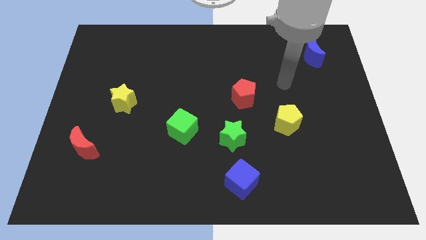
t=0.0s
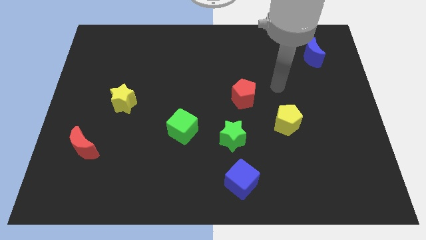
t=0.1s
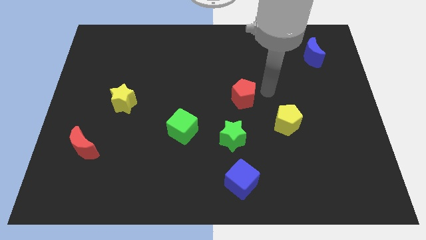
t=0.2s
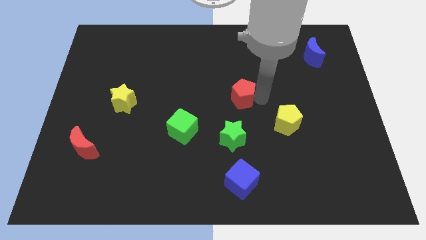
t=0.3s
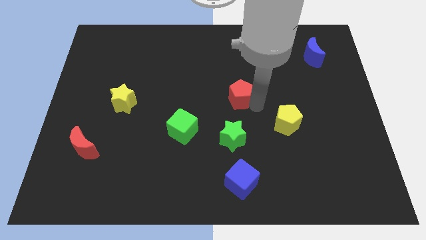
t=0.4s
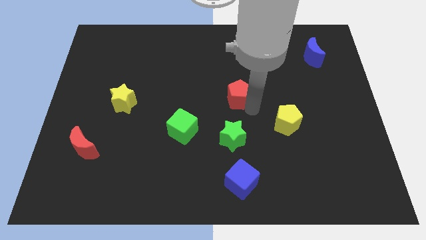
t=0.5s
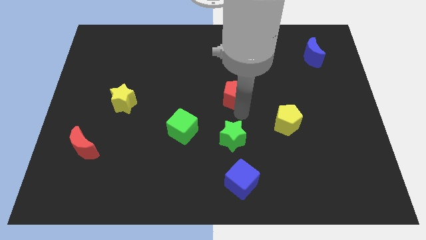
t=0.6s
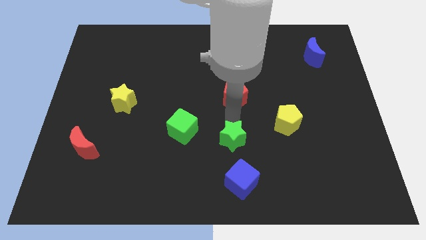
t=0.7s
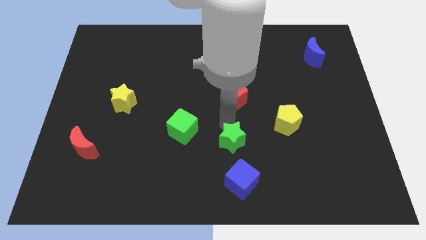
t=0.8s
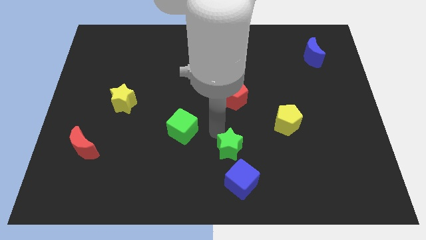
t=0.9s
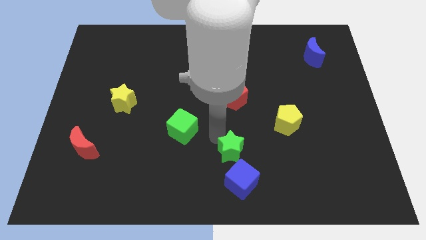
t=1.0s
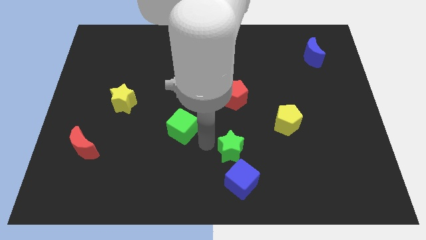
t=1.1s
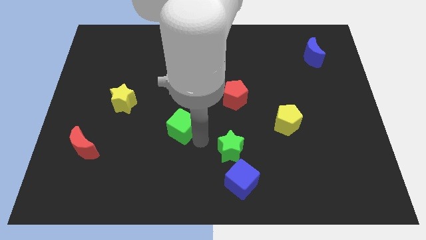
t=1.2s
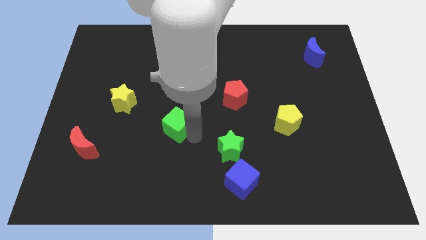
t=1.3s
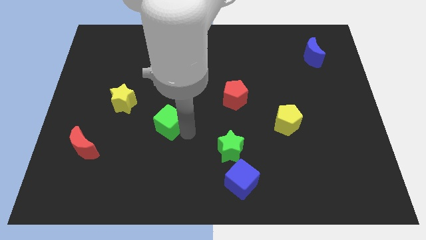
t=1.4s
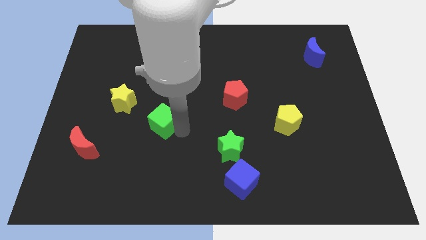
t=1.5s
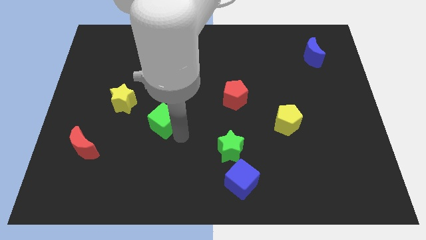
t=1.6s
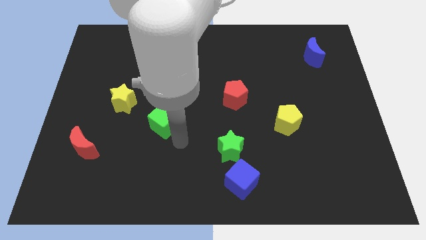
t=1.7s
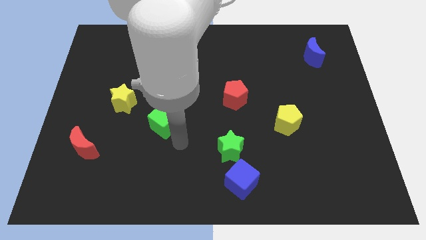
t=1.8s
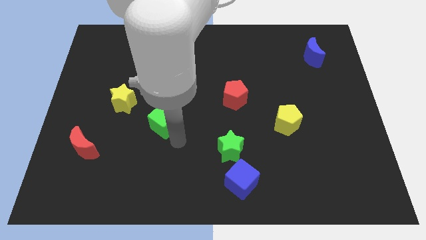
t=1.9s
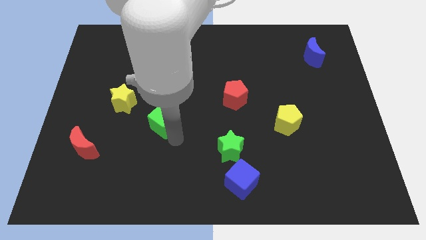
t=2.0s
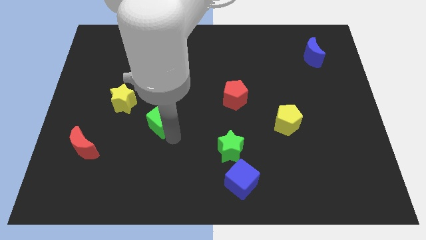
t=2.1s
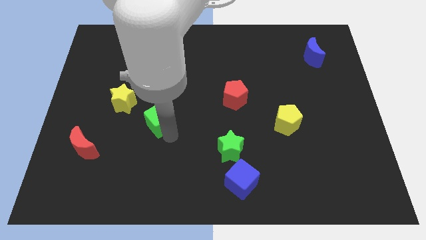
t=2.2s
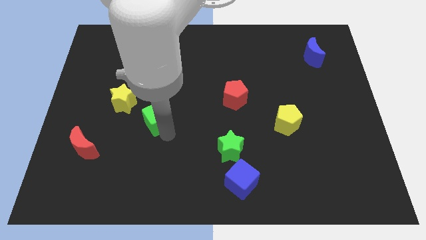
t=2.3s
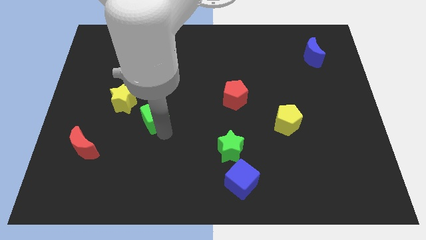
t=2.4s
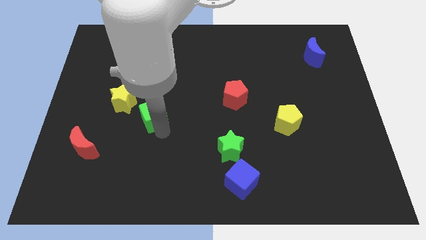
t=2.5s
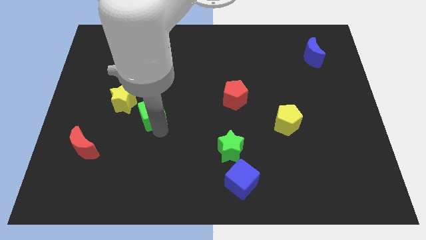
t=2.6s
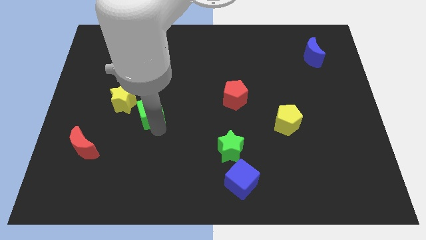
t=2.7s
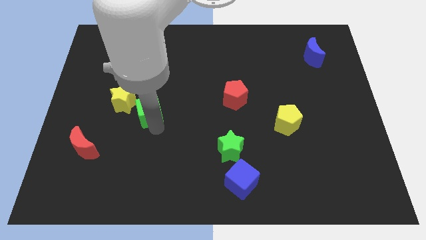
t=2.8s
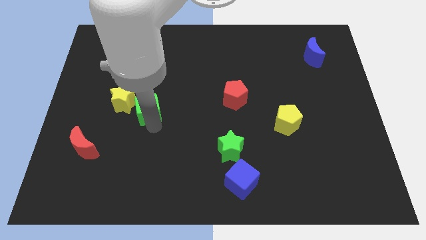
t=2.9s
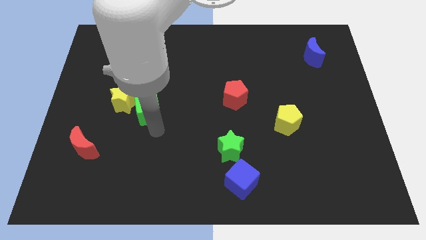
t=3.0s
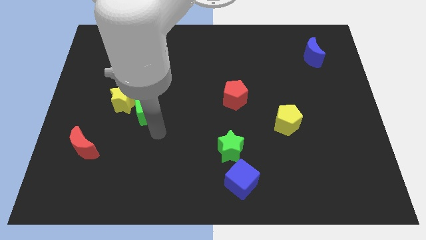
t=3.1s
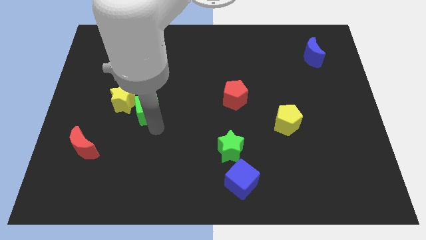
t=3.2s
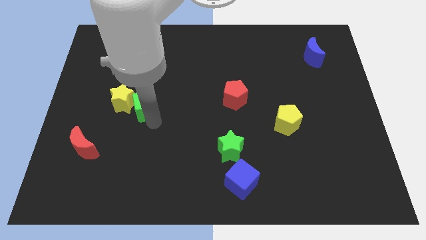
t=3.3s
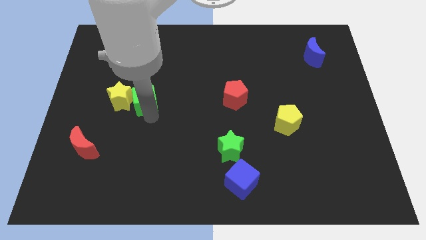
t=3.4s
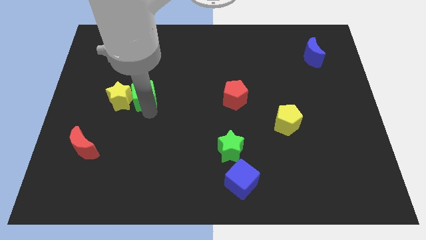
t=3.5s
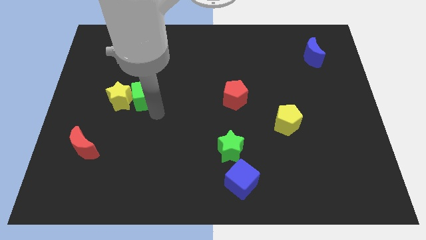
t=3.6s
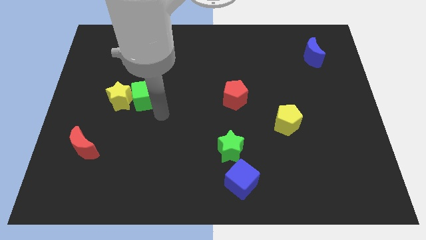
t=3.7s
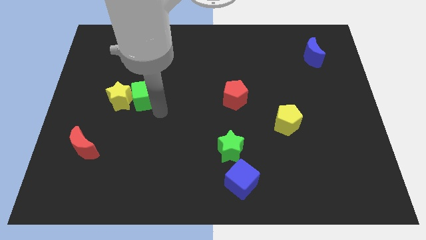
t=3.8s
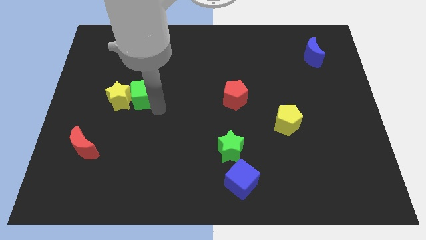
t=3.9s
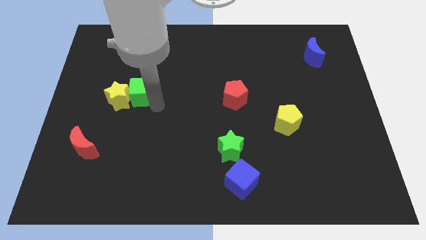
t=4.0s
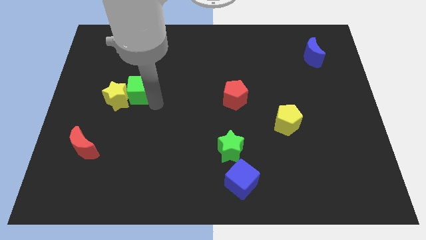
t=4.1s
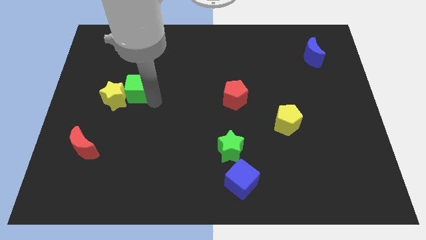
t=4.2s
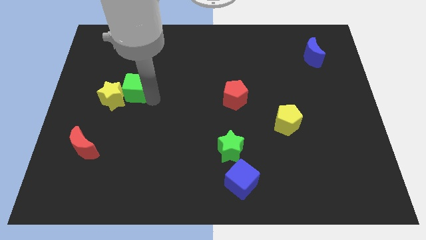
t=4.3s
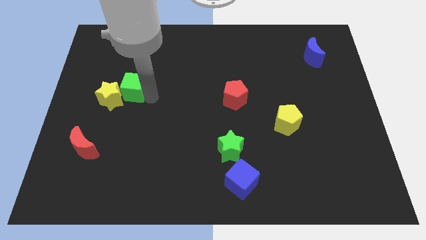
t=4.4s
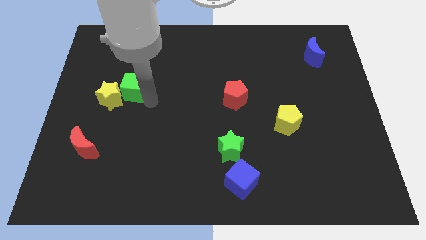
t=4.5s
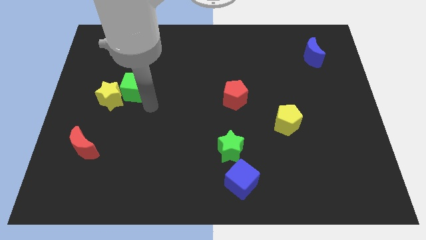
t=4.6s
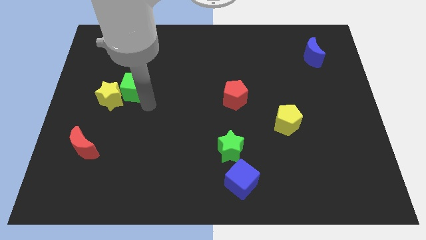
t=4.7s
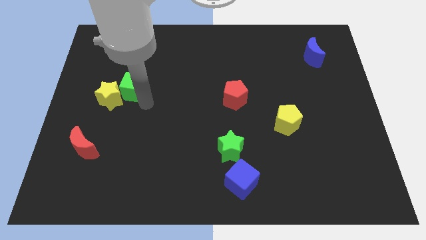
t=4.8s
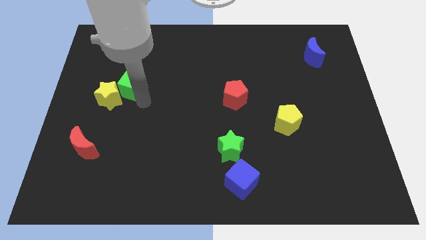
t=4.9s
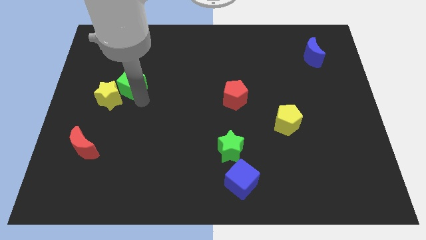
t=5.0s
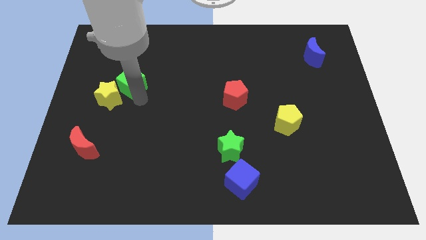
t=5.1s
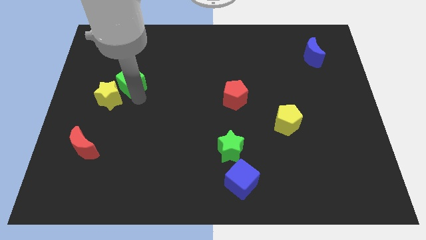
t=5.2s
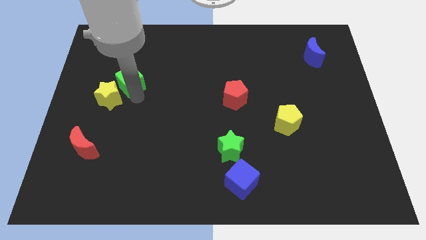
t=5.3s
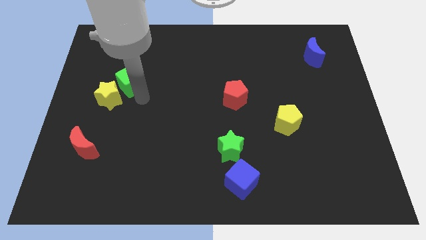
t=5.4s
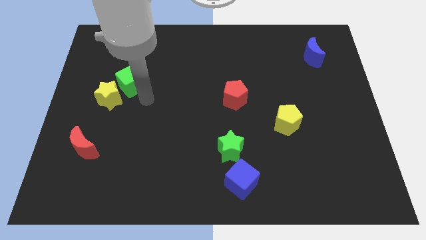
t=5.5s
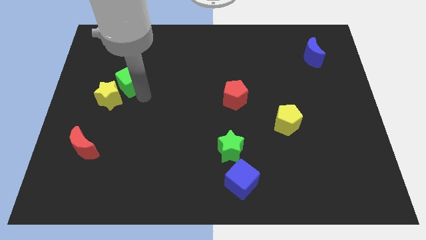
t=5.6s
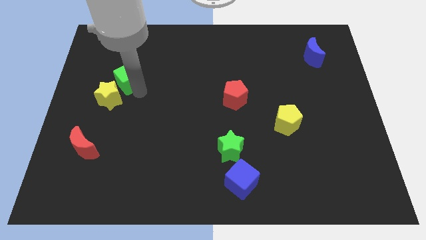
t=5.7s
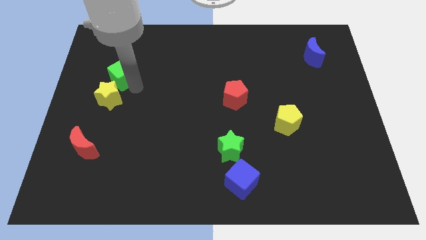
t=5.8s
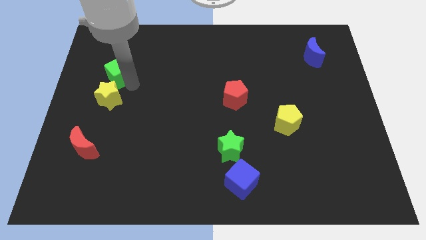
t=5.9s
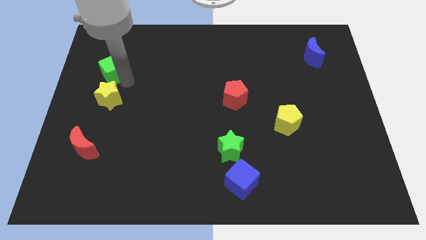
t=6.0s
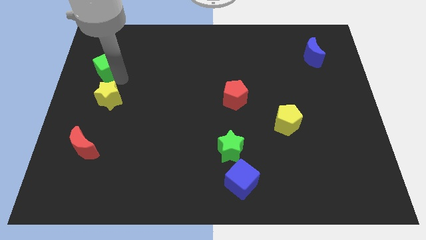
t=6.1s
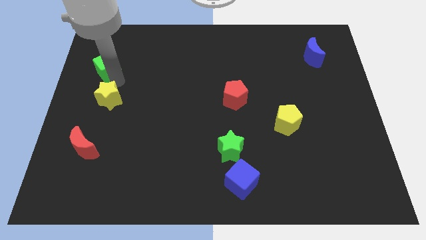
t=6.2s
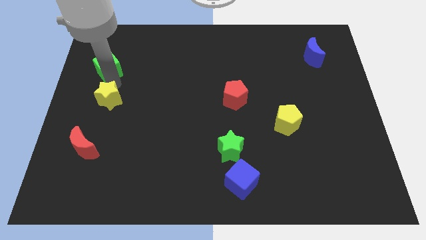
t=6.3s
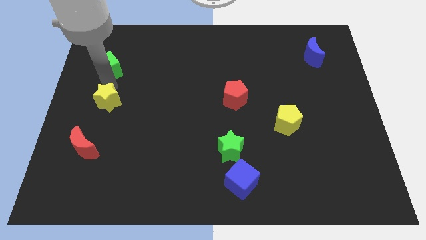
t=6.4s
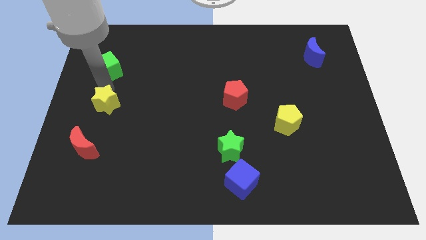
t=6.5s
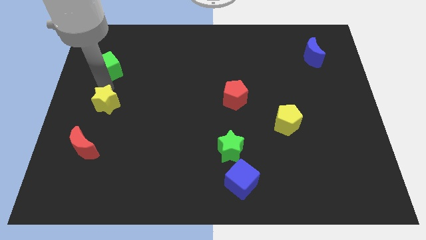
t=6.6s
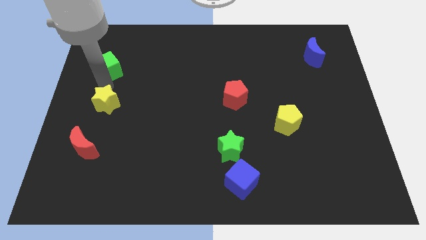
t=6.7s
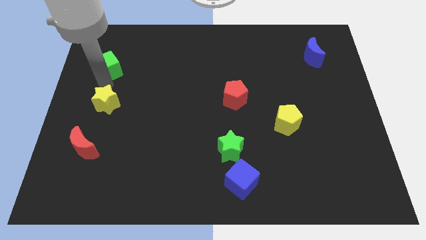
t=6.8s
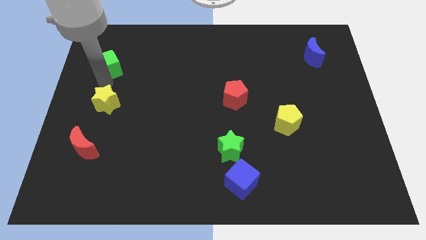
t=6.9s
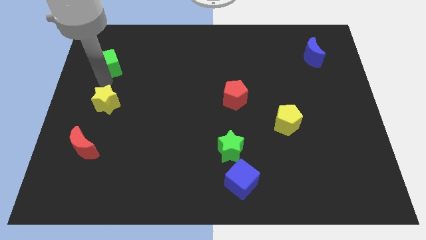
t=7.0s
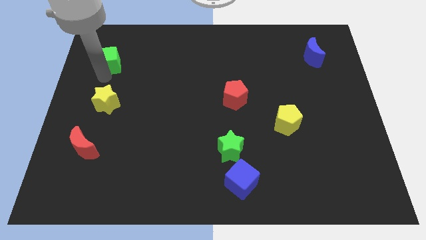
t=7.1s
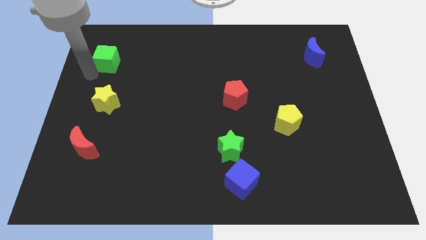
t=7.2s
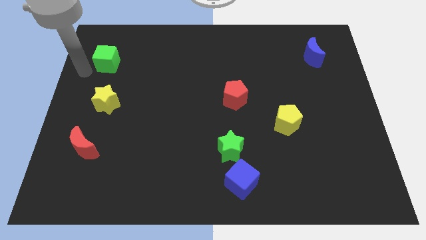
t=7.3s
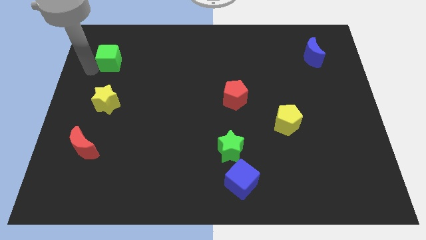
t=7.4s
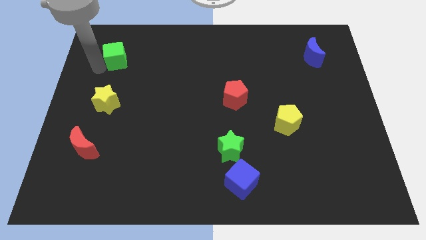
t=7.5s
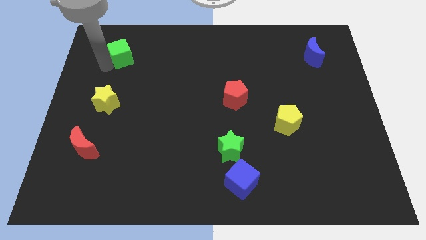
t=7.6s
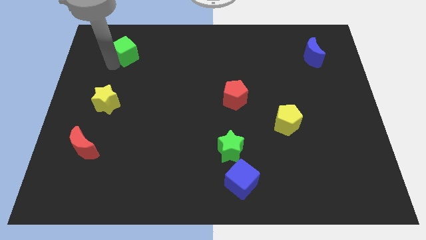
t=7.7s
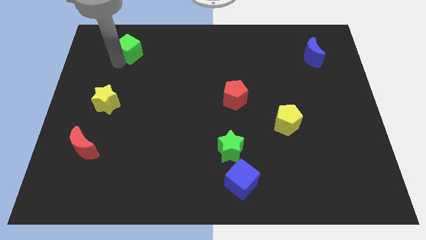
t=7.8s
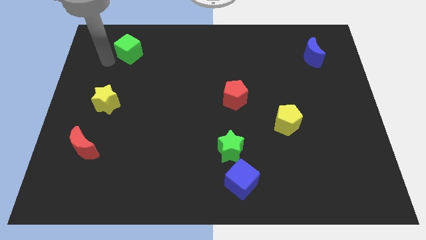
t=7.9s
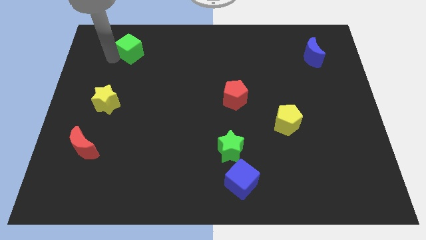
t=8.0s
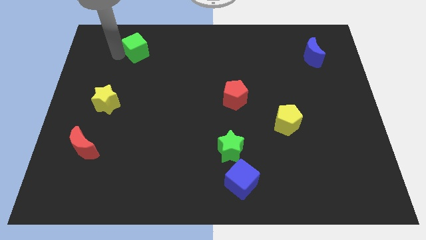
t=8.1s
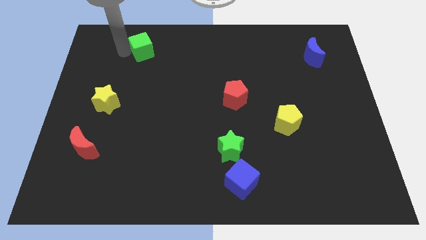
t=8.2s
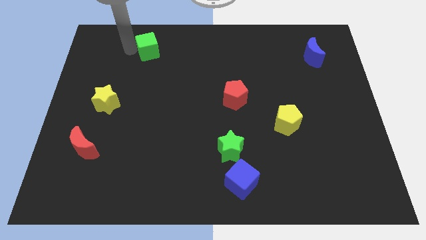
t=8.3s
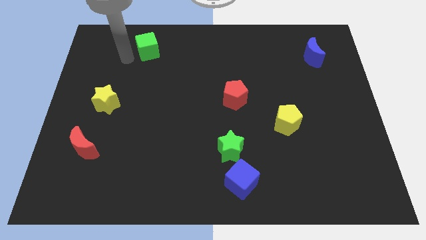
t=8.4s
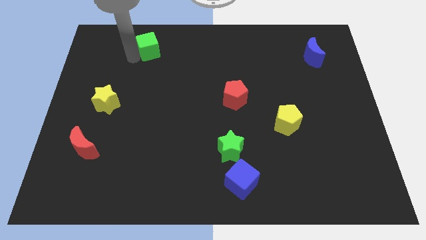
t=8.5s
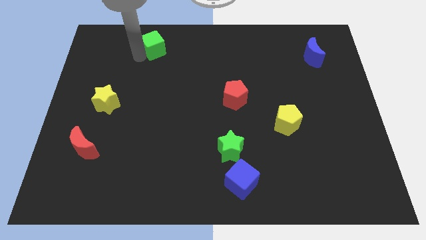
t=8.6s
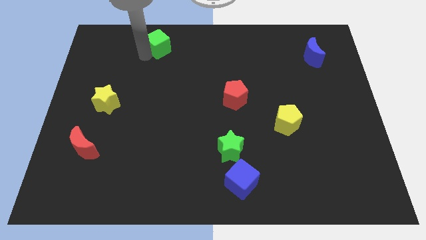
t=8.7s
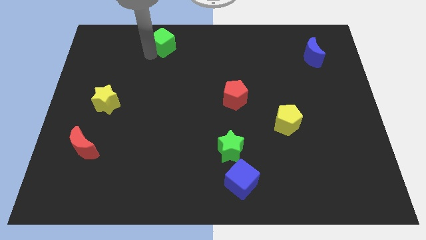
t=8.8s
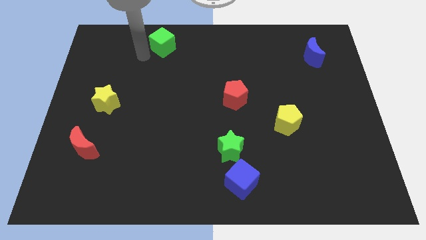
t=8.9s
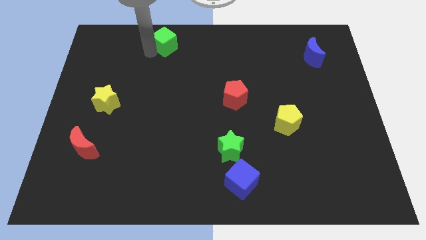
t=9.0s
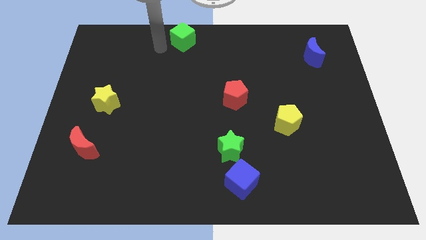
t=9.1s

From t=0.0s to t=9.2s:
move the green cube to the top side
